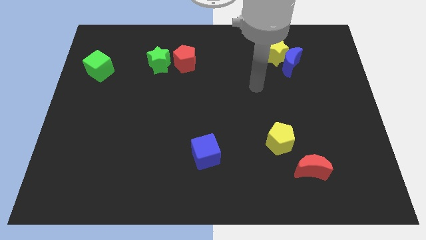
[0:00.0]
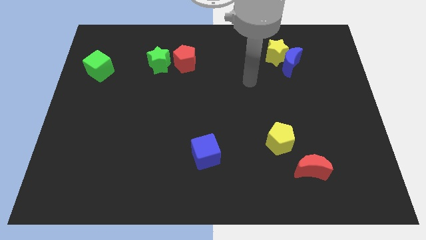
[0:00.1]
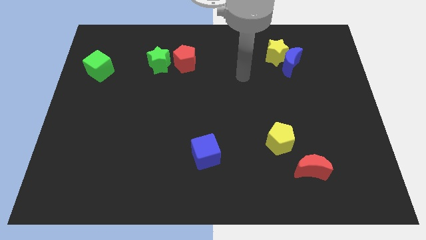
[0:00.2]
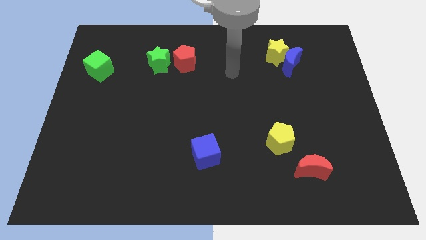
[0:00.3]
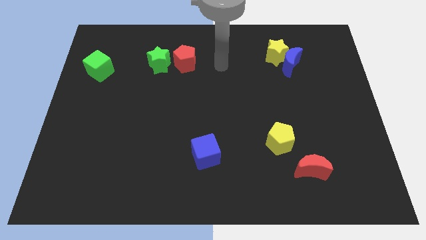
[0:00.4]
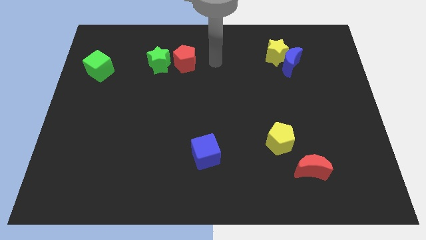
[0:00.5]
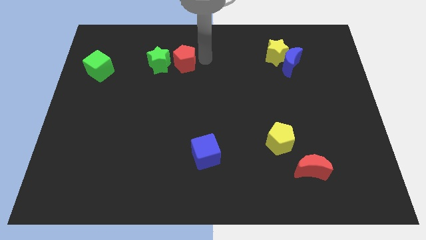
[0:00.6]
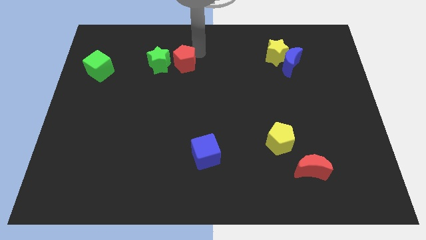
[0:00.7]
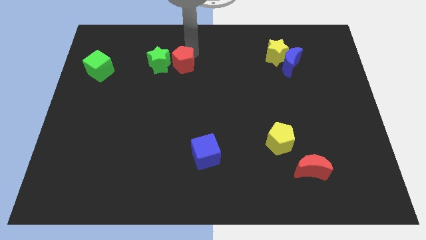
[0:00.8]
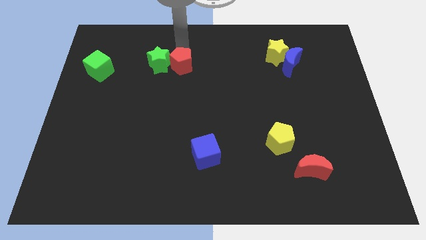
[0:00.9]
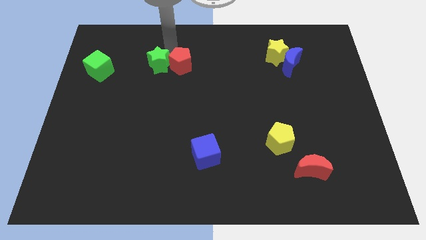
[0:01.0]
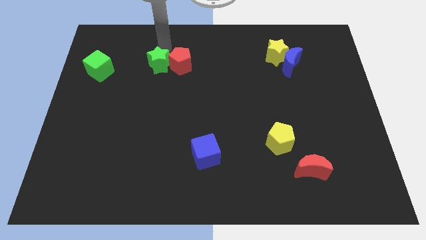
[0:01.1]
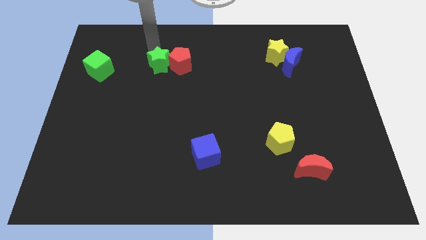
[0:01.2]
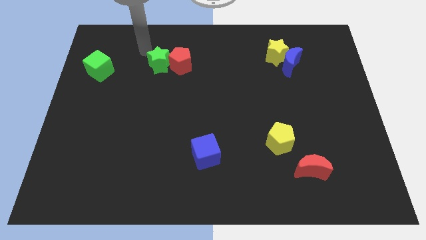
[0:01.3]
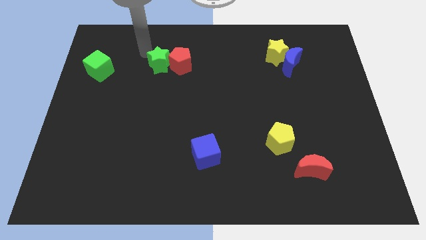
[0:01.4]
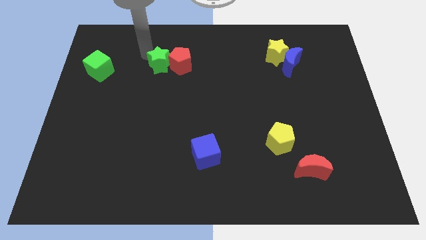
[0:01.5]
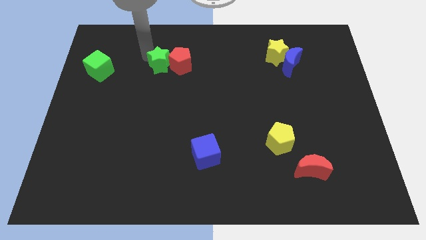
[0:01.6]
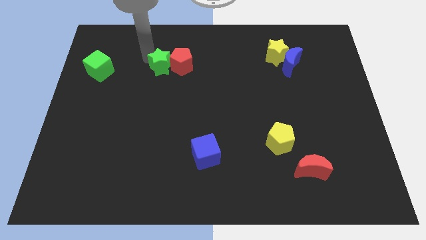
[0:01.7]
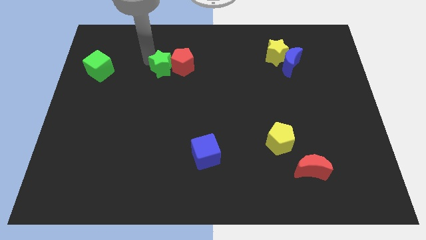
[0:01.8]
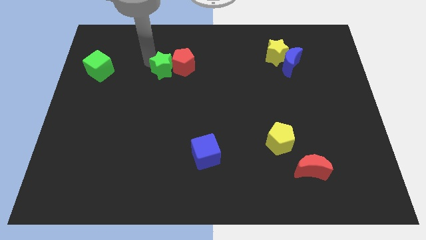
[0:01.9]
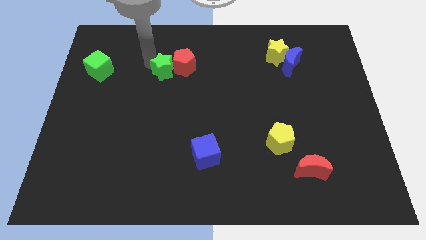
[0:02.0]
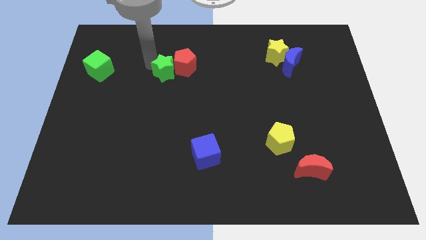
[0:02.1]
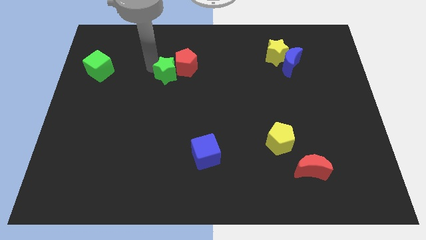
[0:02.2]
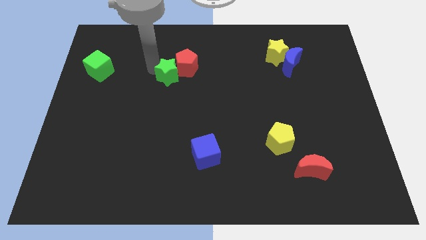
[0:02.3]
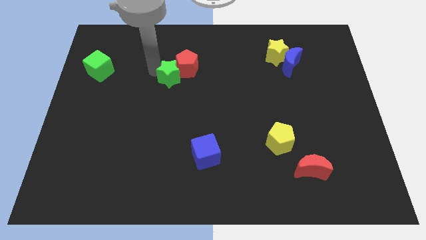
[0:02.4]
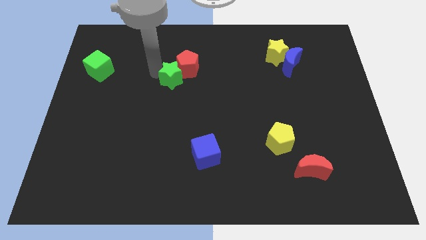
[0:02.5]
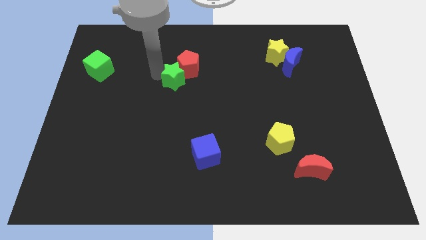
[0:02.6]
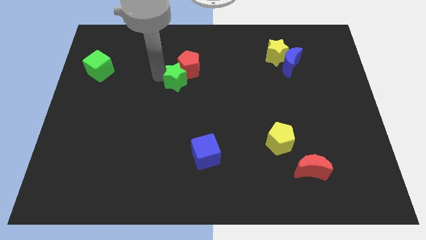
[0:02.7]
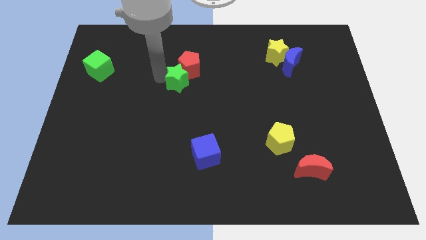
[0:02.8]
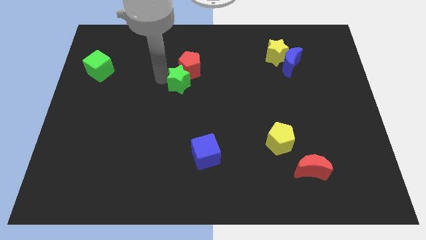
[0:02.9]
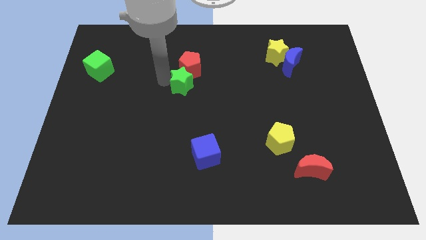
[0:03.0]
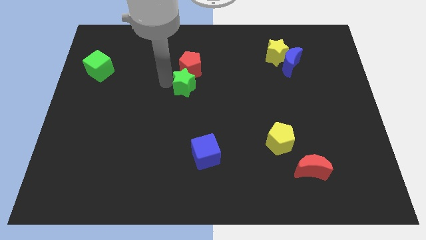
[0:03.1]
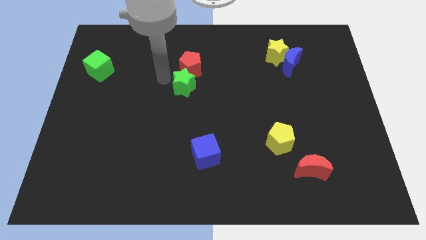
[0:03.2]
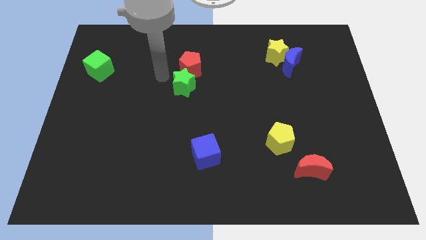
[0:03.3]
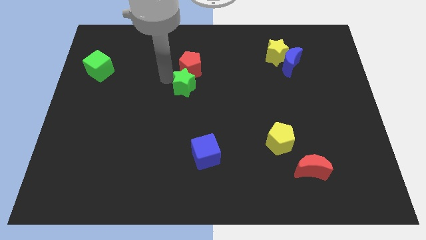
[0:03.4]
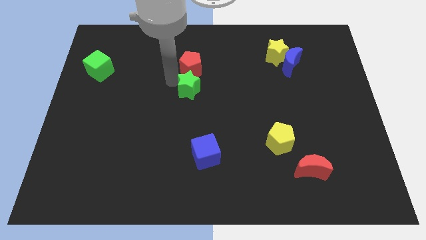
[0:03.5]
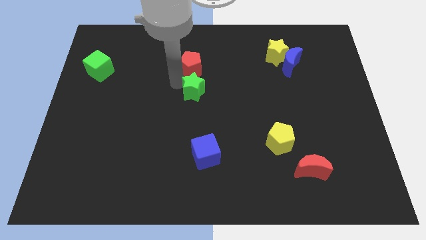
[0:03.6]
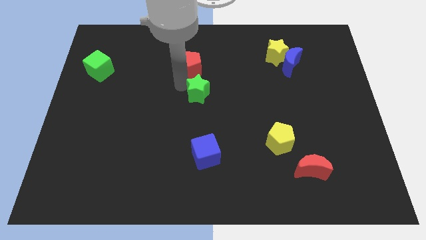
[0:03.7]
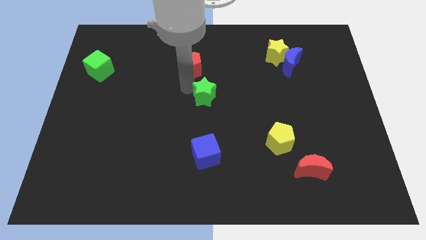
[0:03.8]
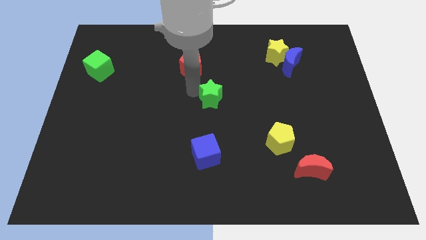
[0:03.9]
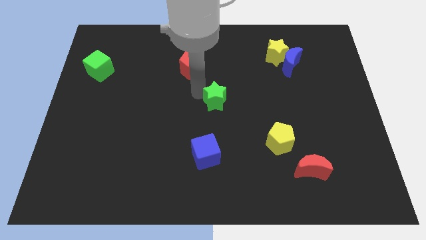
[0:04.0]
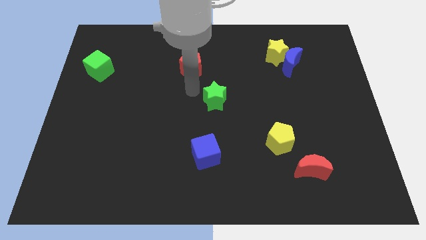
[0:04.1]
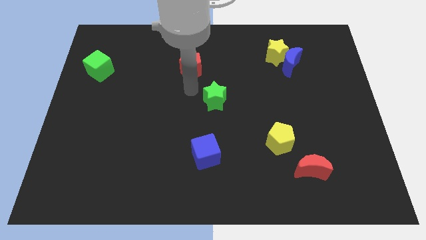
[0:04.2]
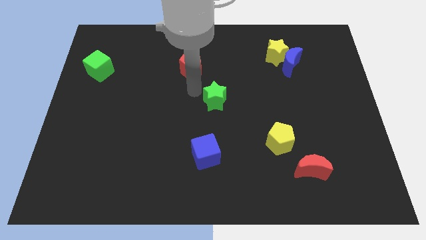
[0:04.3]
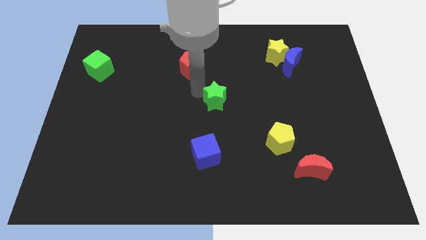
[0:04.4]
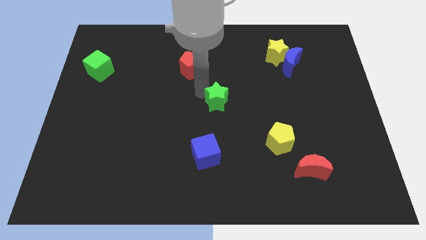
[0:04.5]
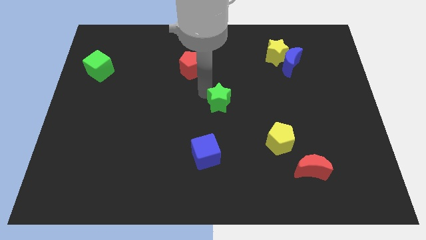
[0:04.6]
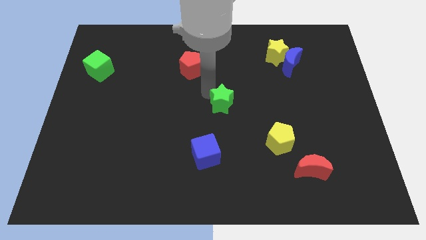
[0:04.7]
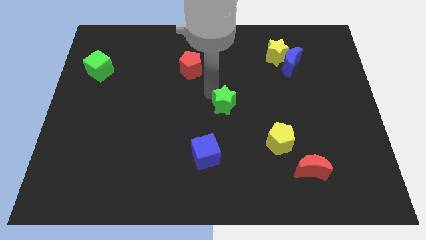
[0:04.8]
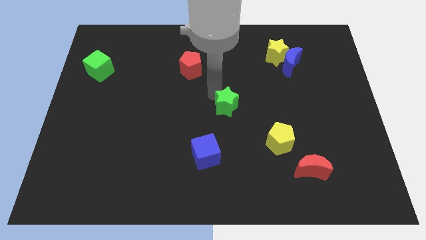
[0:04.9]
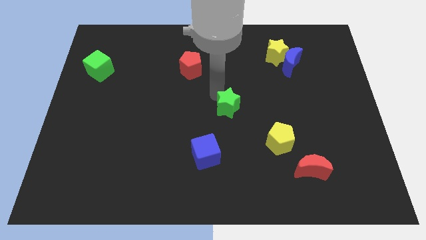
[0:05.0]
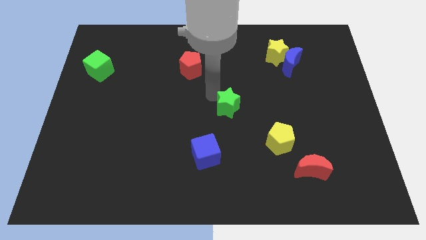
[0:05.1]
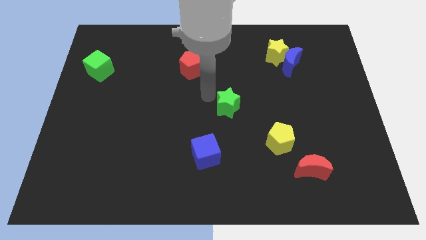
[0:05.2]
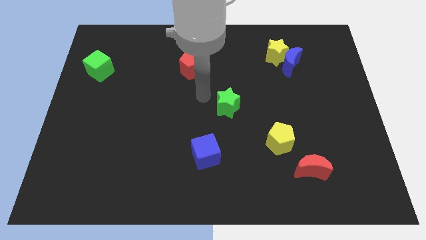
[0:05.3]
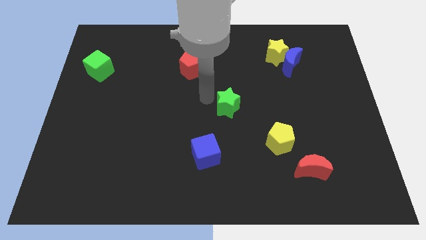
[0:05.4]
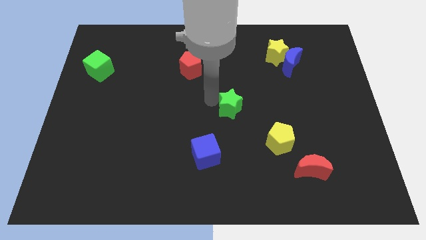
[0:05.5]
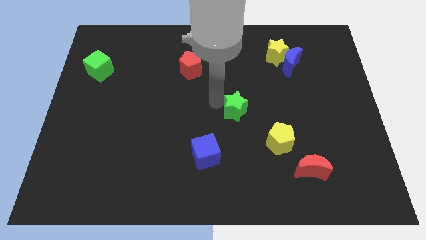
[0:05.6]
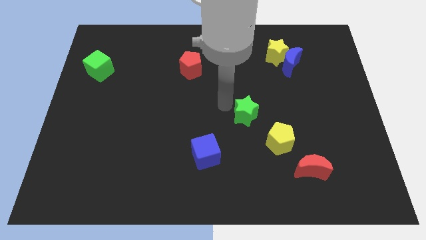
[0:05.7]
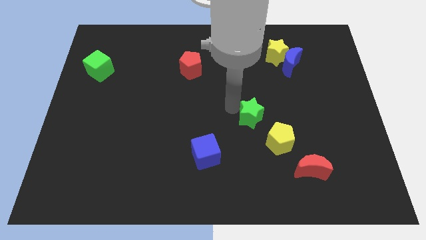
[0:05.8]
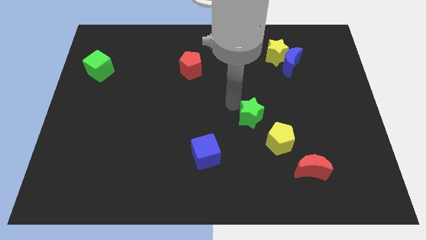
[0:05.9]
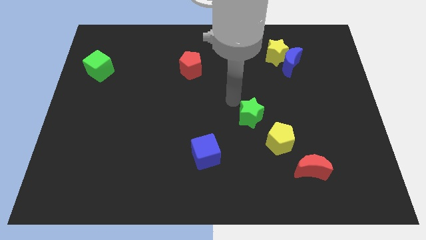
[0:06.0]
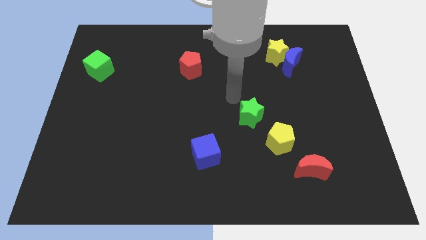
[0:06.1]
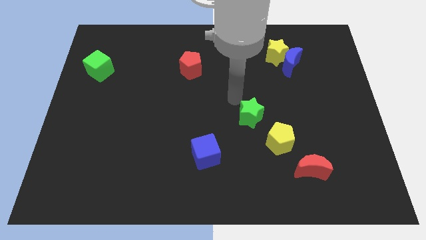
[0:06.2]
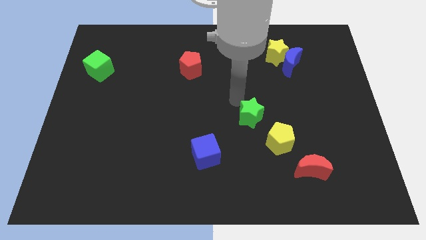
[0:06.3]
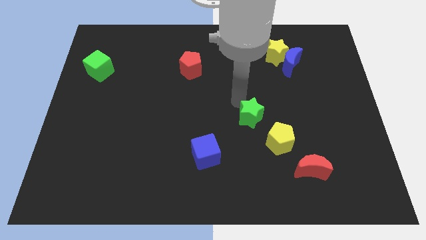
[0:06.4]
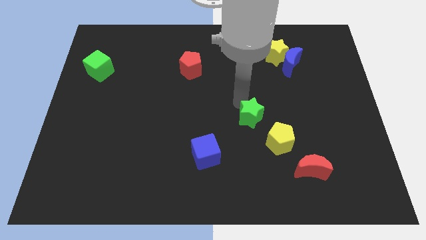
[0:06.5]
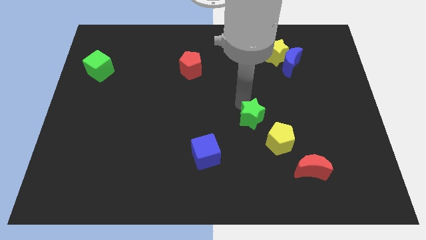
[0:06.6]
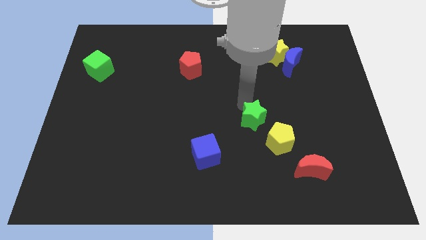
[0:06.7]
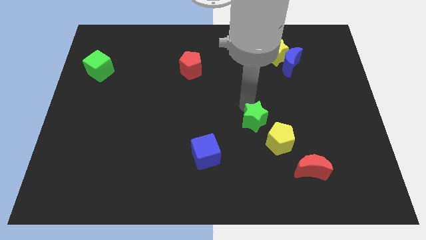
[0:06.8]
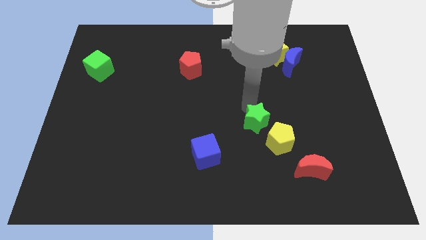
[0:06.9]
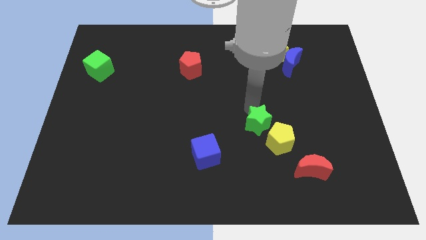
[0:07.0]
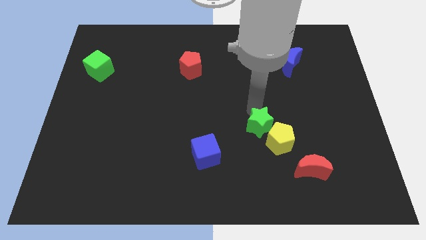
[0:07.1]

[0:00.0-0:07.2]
put the green star close to the yellow pentagon
